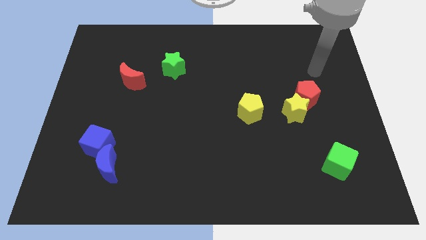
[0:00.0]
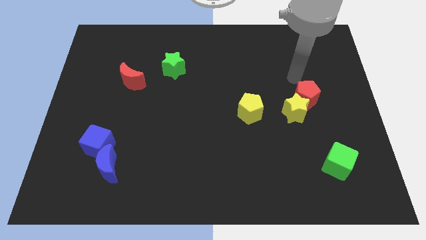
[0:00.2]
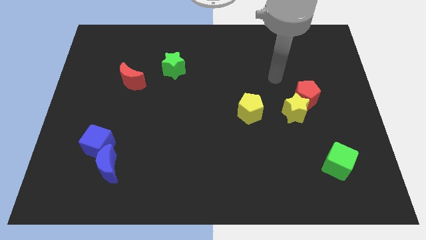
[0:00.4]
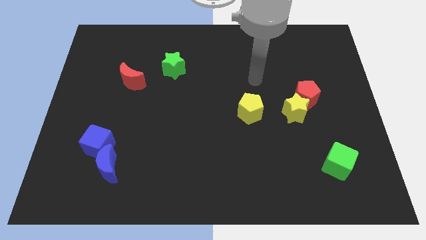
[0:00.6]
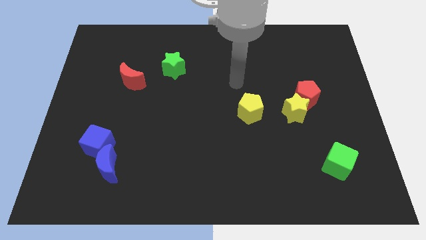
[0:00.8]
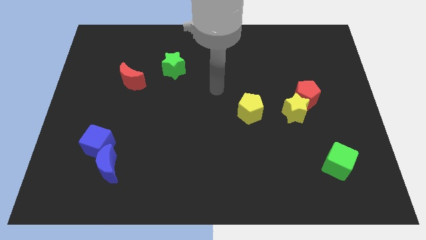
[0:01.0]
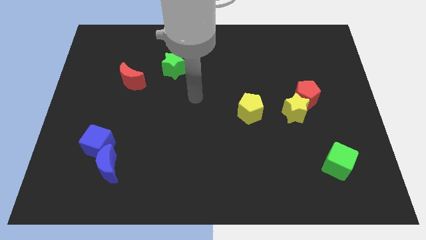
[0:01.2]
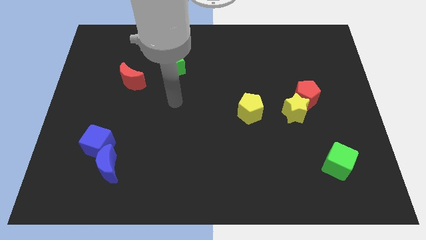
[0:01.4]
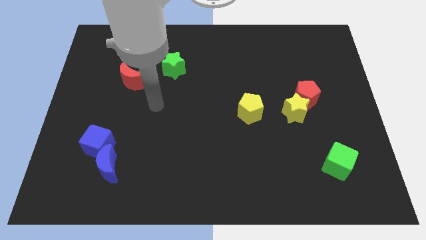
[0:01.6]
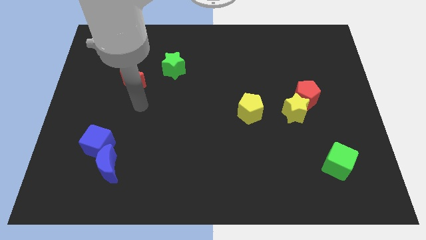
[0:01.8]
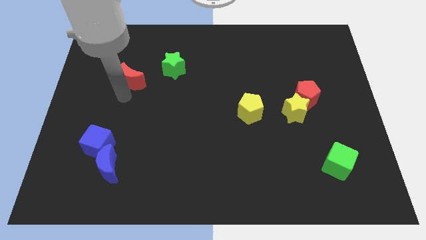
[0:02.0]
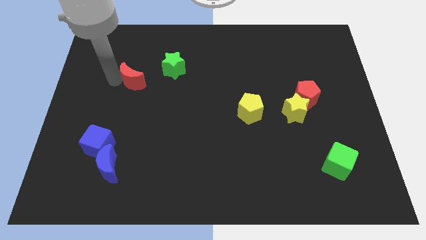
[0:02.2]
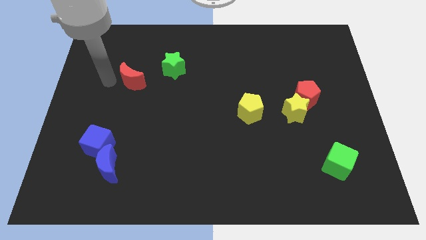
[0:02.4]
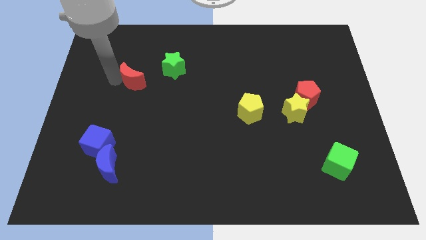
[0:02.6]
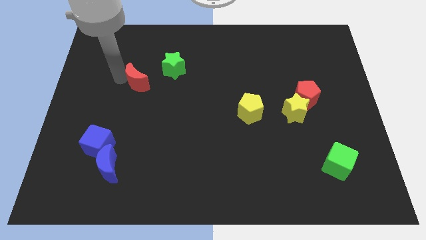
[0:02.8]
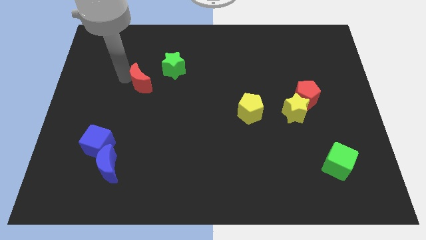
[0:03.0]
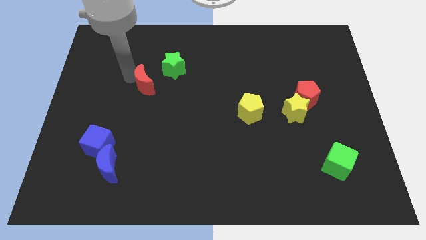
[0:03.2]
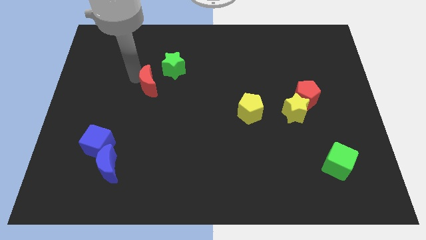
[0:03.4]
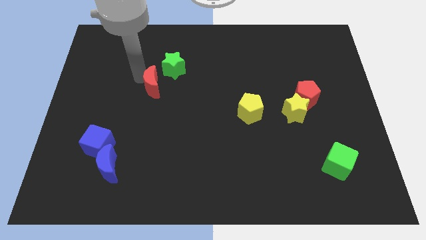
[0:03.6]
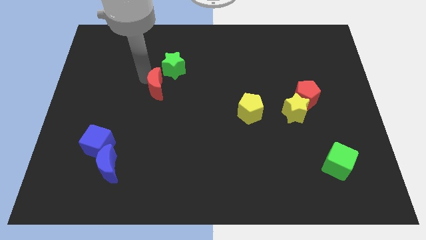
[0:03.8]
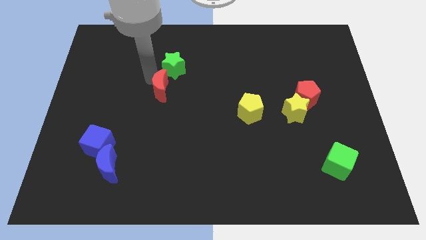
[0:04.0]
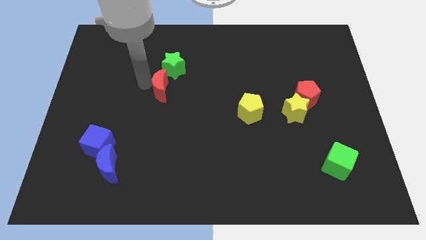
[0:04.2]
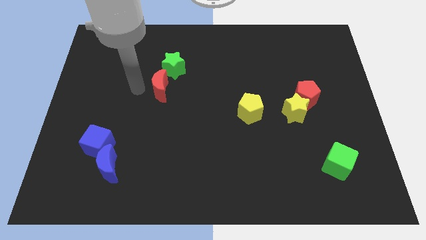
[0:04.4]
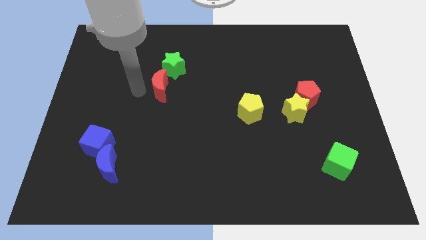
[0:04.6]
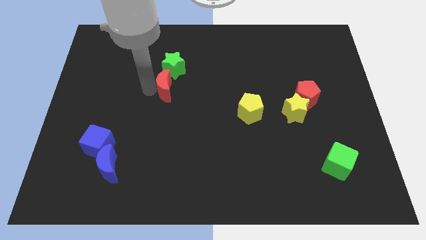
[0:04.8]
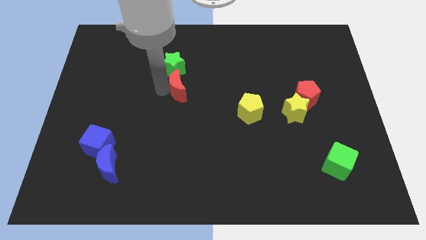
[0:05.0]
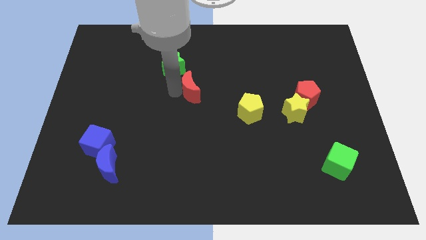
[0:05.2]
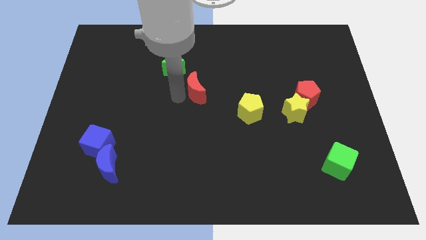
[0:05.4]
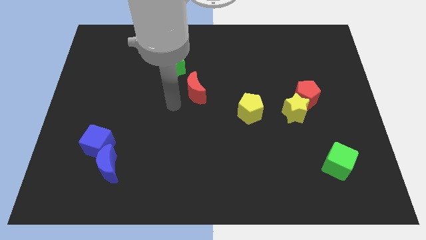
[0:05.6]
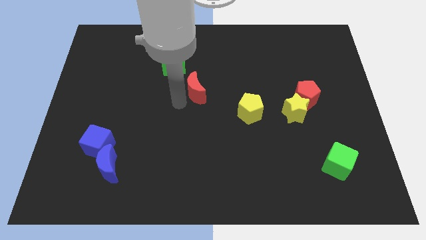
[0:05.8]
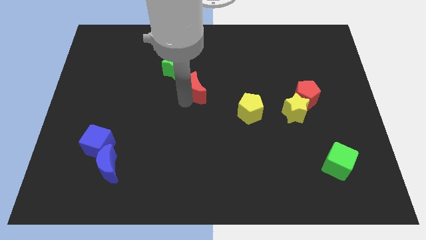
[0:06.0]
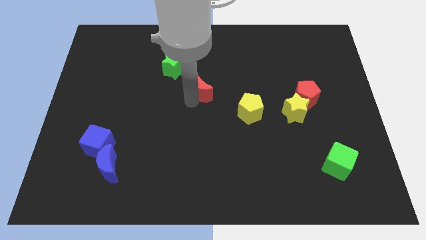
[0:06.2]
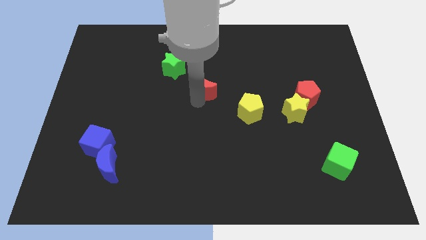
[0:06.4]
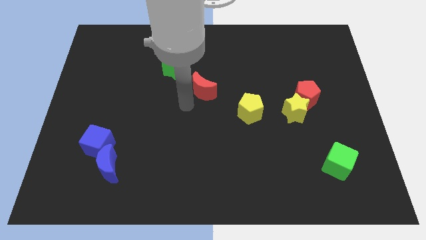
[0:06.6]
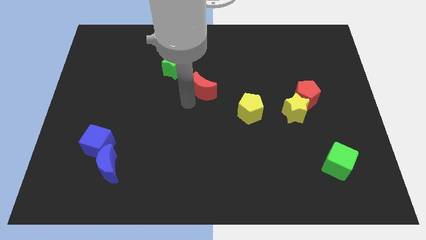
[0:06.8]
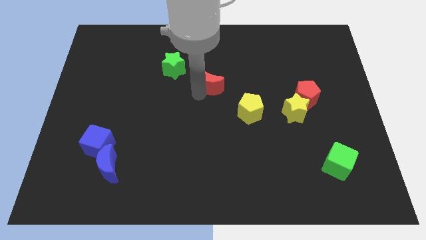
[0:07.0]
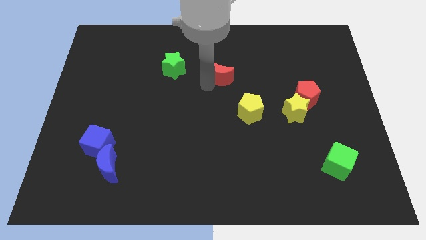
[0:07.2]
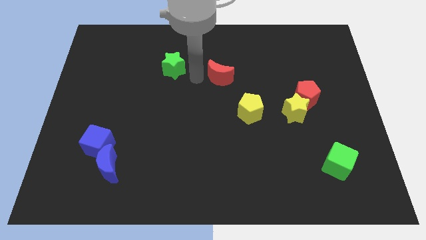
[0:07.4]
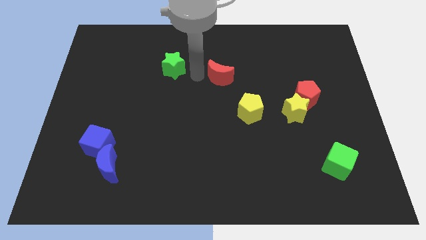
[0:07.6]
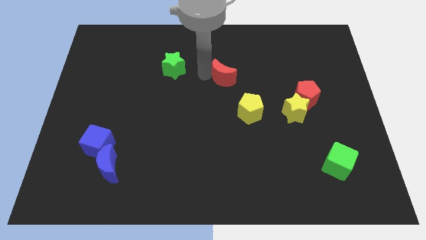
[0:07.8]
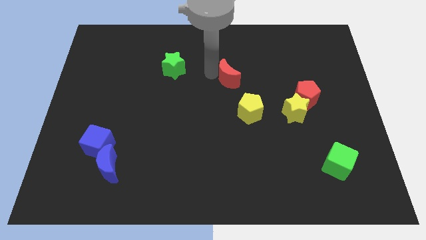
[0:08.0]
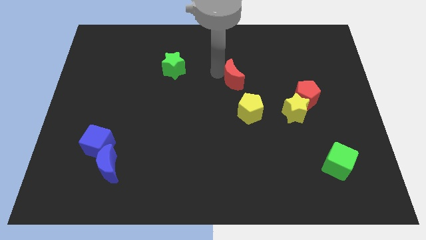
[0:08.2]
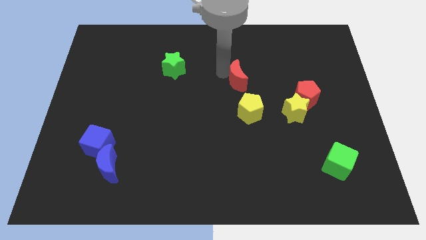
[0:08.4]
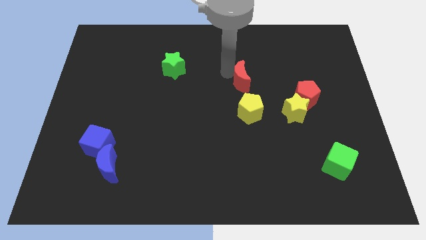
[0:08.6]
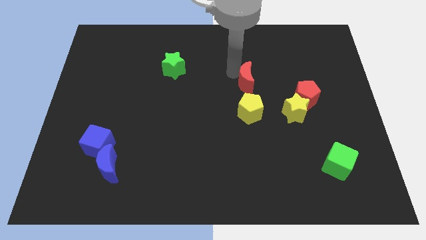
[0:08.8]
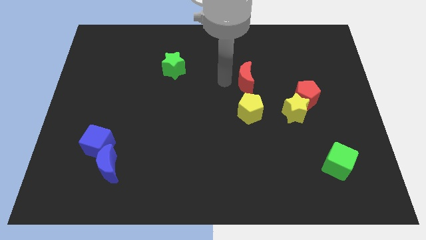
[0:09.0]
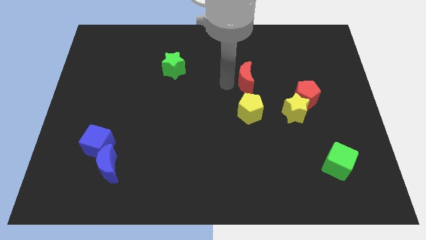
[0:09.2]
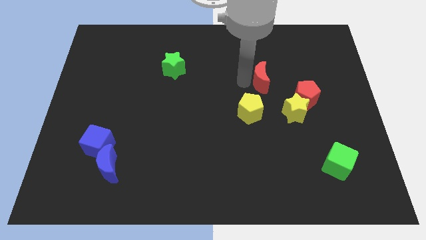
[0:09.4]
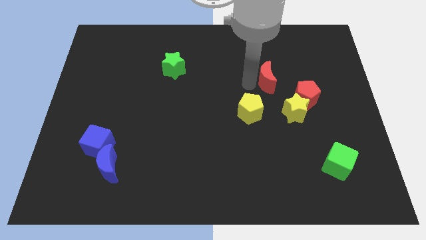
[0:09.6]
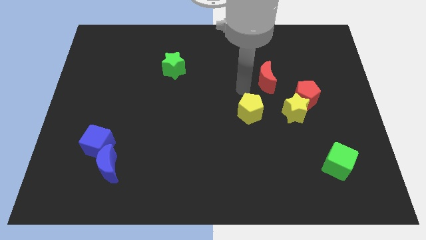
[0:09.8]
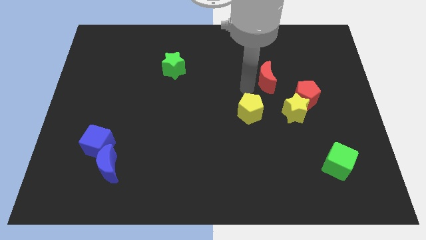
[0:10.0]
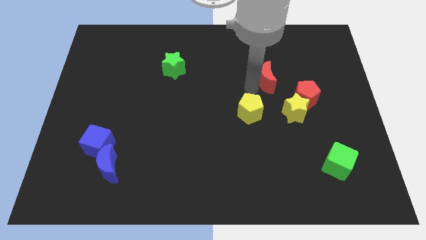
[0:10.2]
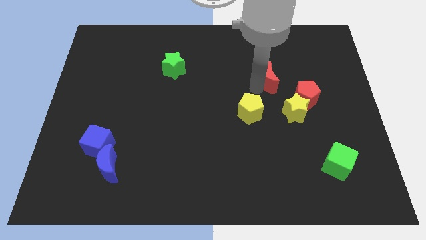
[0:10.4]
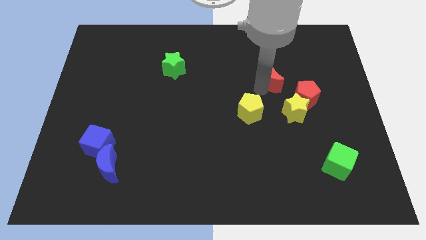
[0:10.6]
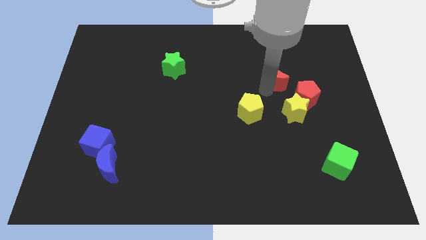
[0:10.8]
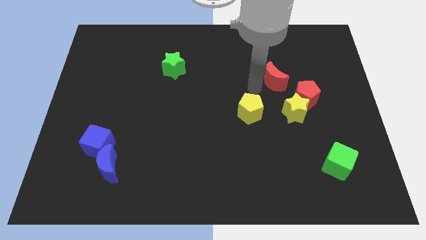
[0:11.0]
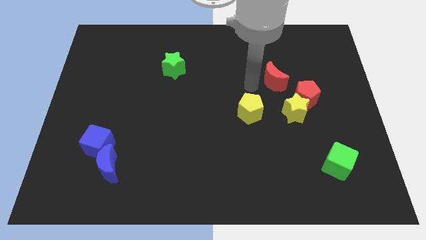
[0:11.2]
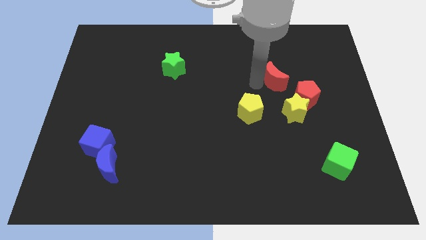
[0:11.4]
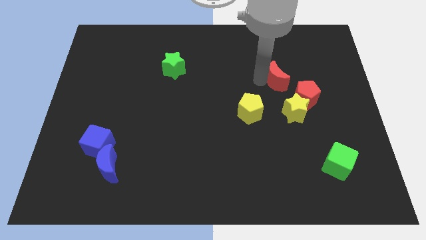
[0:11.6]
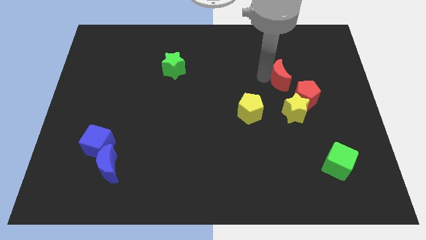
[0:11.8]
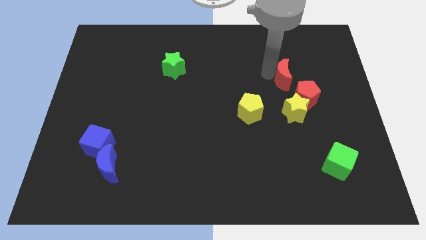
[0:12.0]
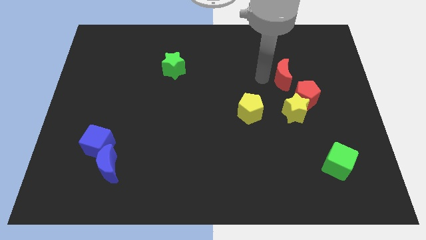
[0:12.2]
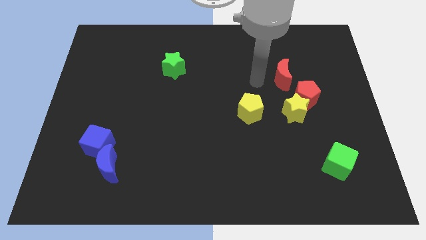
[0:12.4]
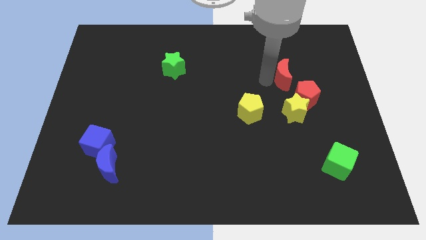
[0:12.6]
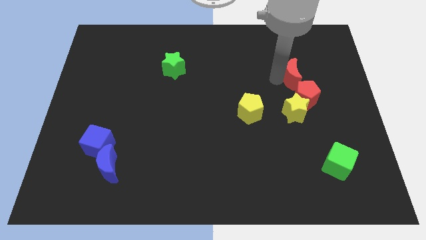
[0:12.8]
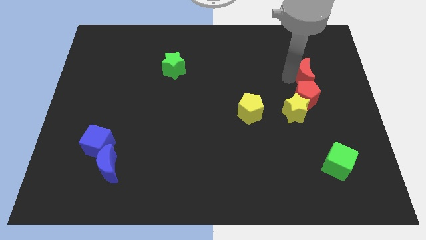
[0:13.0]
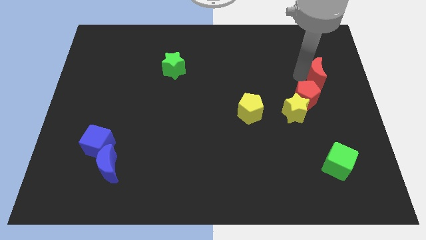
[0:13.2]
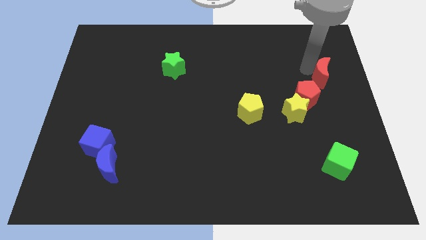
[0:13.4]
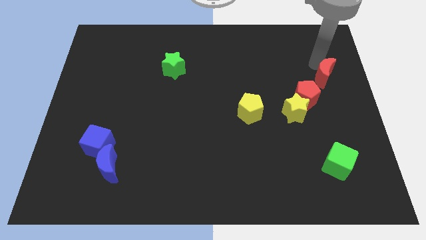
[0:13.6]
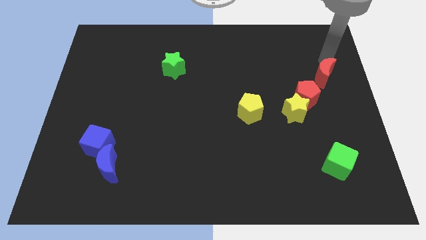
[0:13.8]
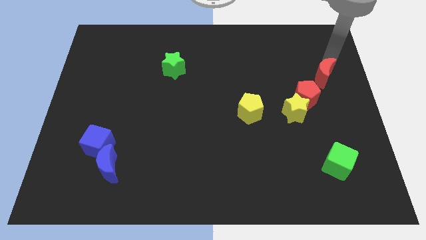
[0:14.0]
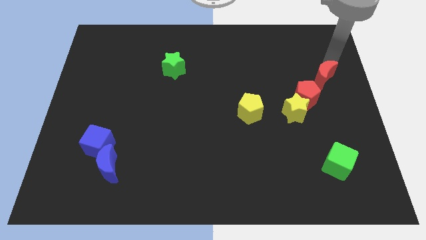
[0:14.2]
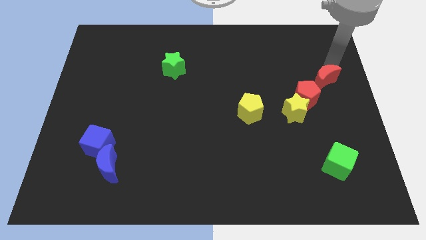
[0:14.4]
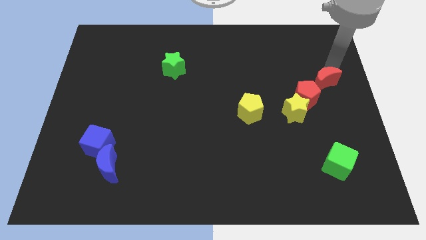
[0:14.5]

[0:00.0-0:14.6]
push the red moon to the top right of the yellow star
